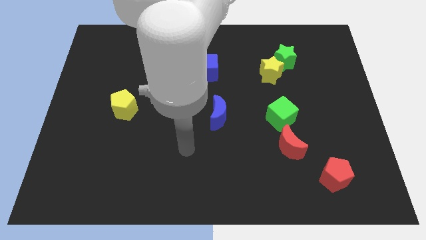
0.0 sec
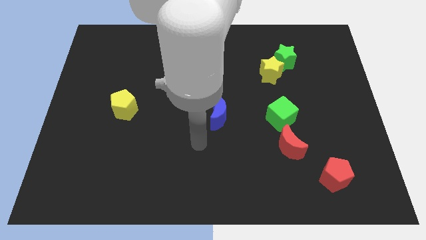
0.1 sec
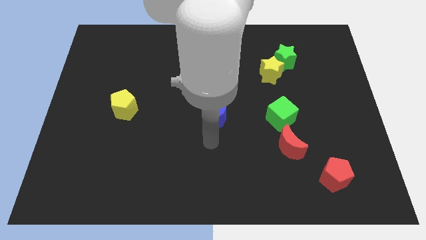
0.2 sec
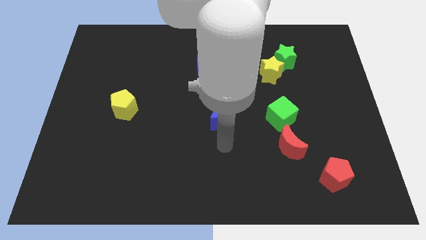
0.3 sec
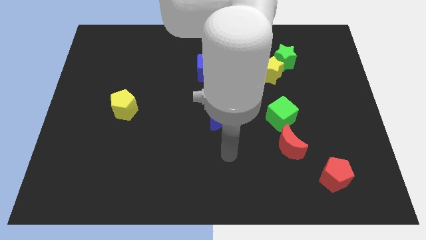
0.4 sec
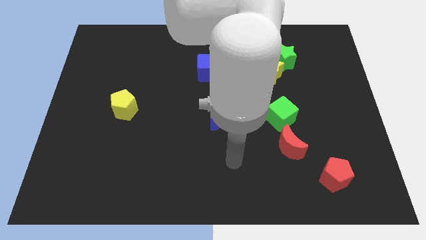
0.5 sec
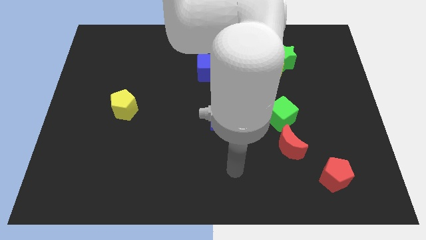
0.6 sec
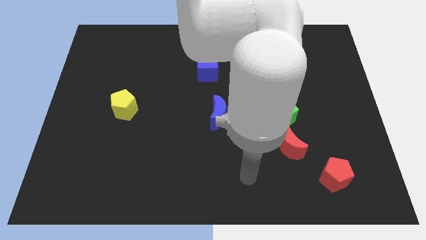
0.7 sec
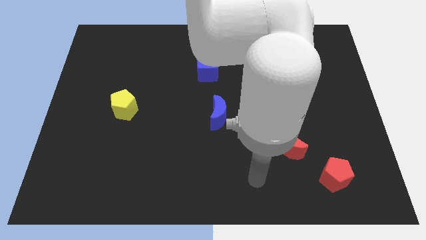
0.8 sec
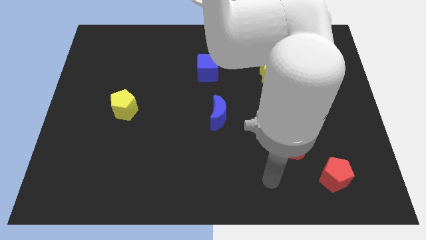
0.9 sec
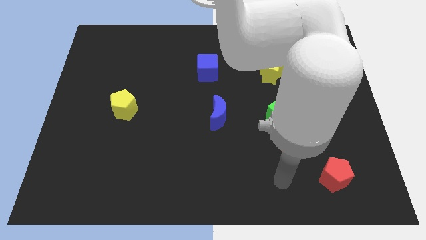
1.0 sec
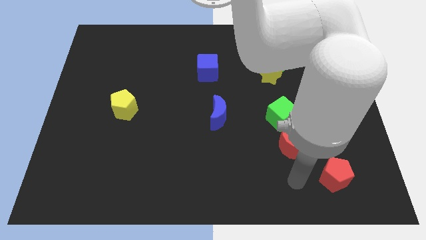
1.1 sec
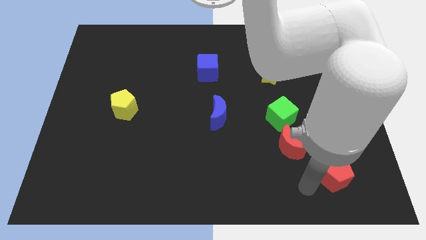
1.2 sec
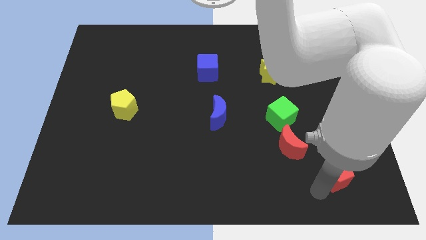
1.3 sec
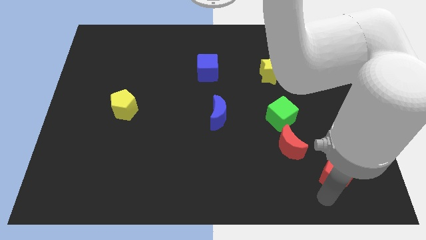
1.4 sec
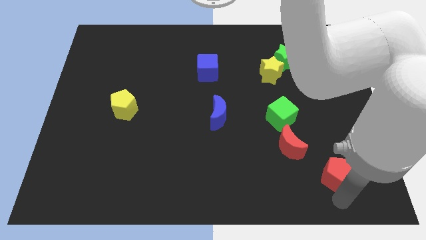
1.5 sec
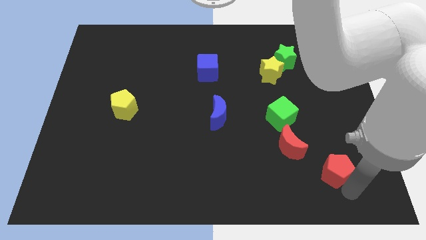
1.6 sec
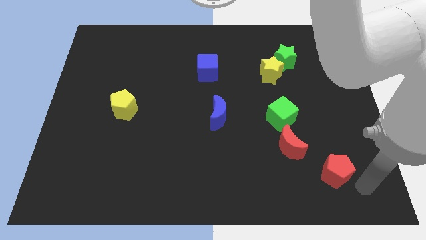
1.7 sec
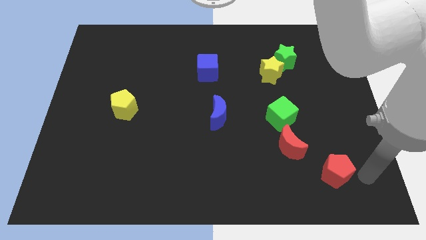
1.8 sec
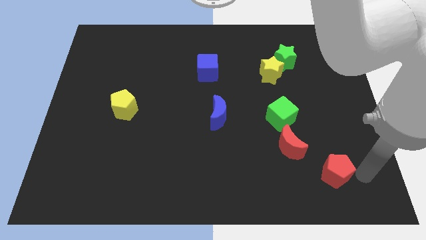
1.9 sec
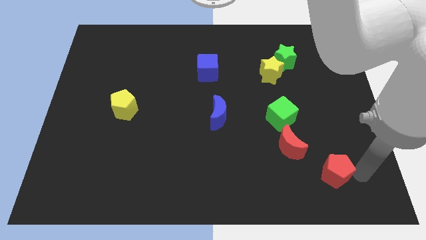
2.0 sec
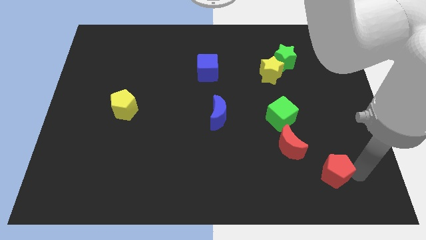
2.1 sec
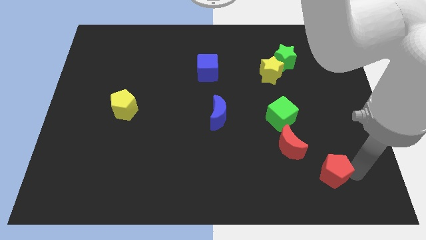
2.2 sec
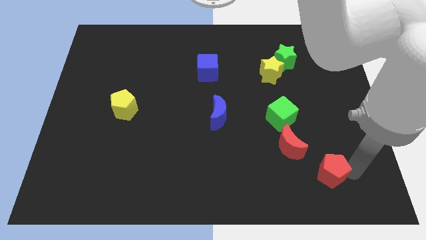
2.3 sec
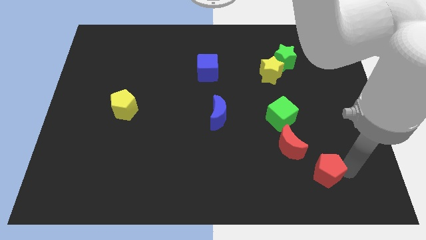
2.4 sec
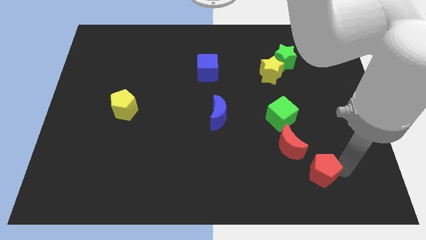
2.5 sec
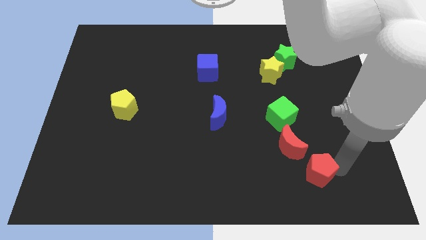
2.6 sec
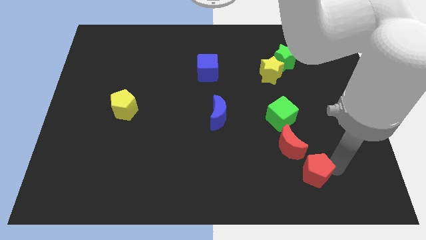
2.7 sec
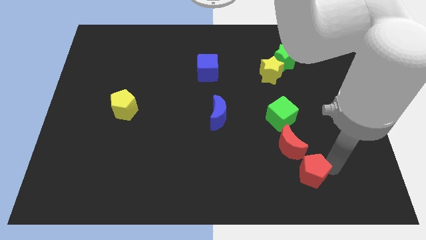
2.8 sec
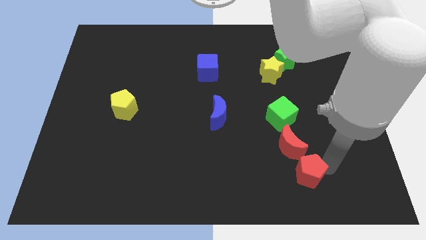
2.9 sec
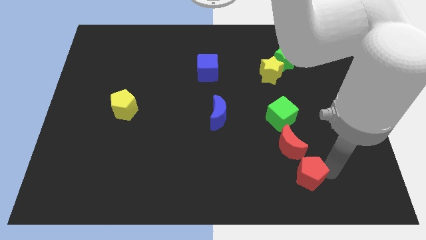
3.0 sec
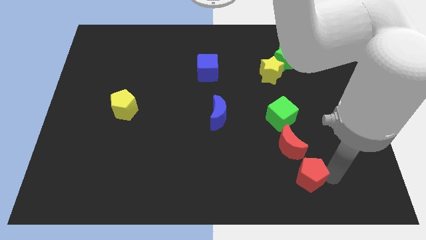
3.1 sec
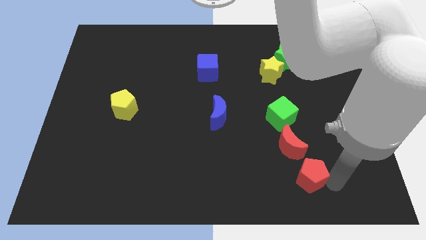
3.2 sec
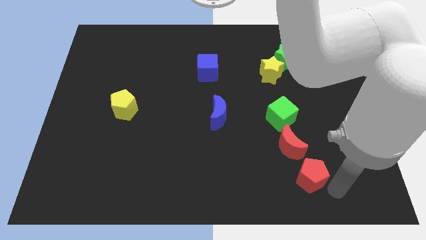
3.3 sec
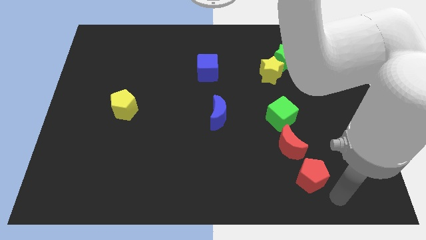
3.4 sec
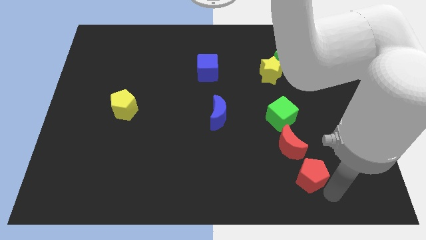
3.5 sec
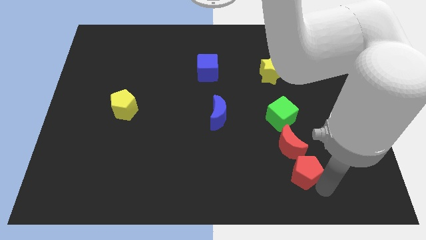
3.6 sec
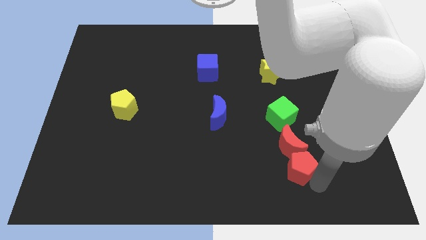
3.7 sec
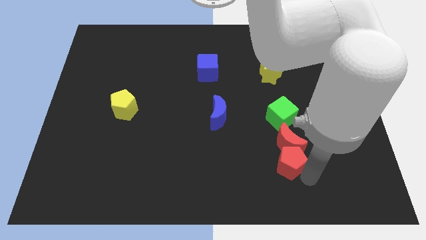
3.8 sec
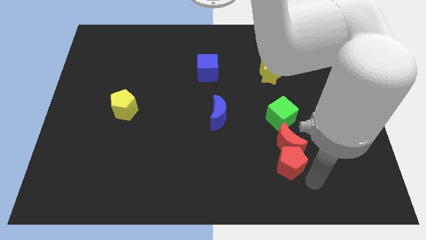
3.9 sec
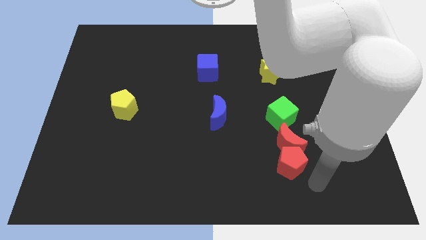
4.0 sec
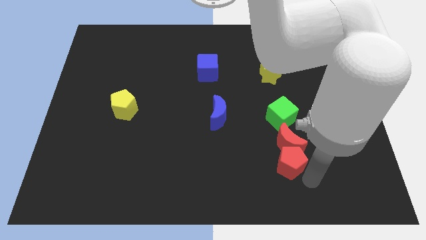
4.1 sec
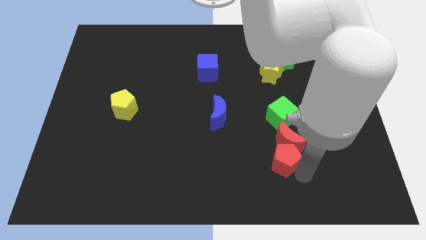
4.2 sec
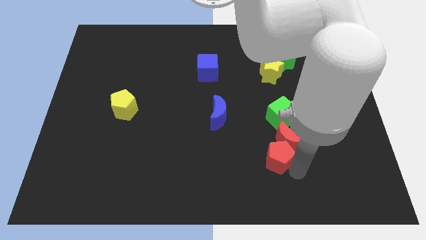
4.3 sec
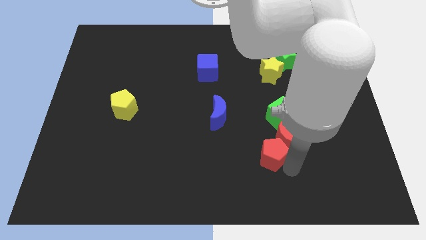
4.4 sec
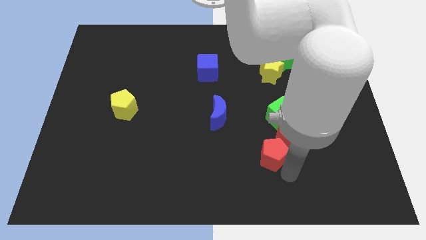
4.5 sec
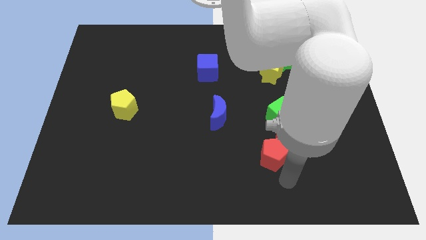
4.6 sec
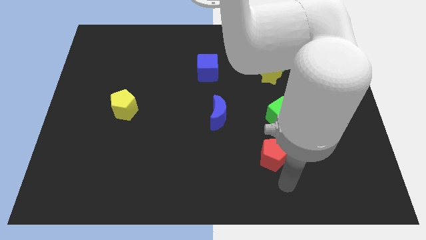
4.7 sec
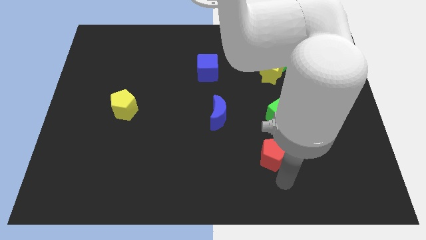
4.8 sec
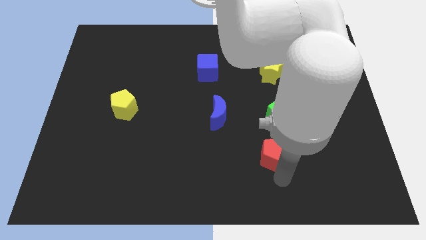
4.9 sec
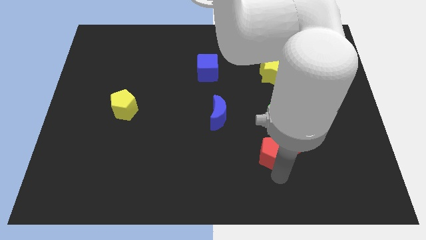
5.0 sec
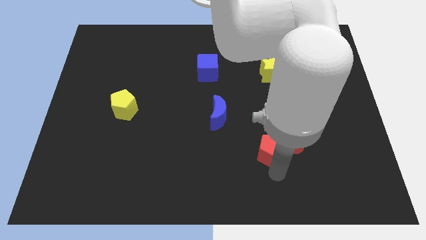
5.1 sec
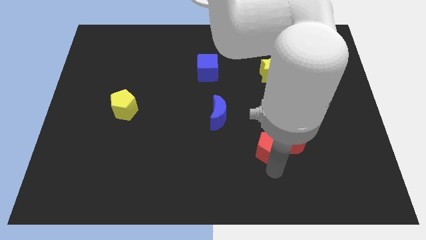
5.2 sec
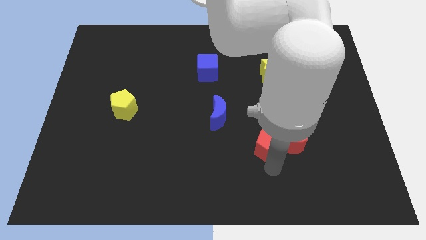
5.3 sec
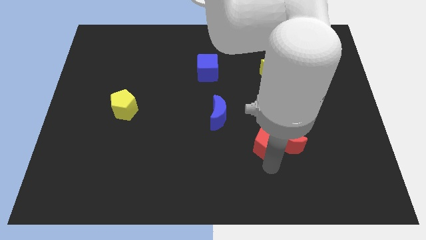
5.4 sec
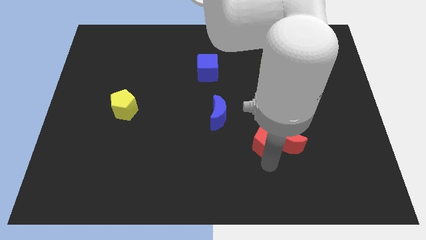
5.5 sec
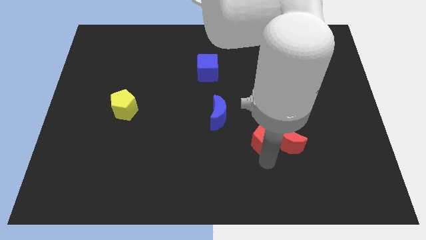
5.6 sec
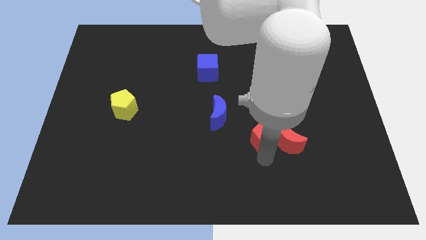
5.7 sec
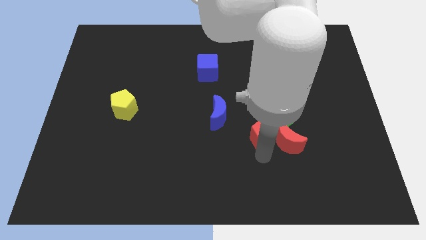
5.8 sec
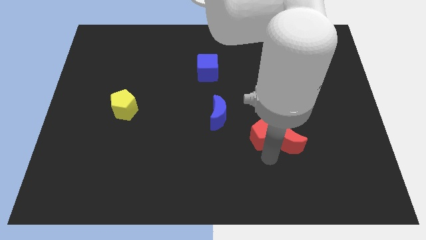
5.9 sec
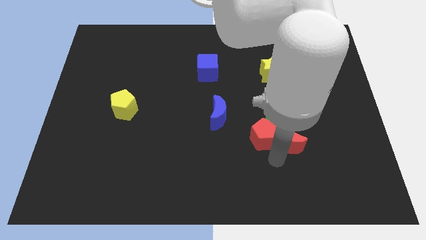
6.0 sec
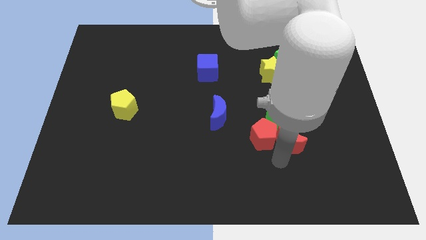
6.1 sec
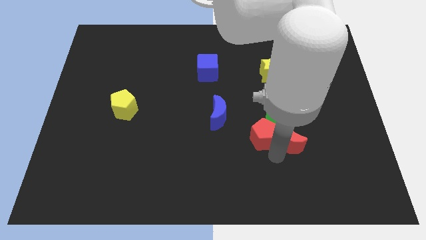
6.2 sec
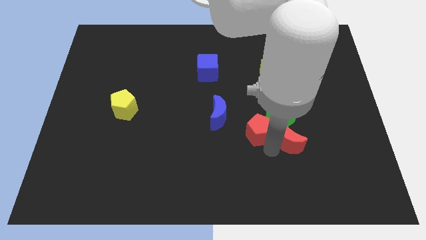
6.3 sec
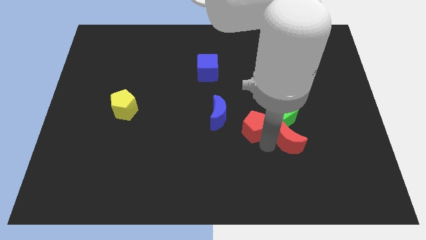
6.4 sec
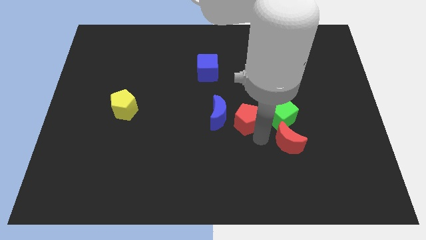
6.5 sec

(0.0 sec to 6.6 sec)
slide the red pentagon up and to the left

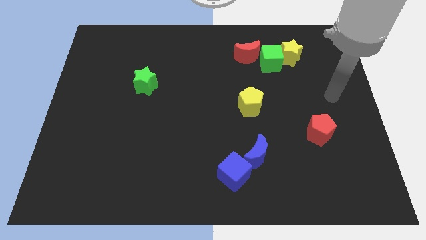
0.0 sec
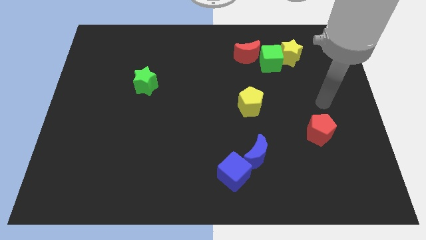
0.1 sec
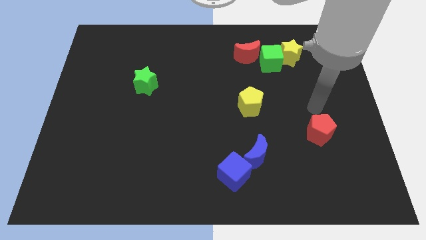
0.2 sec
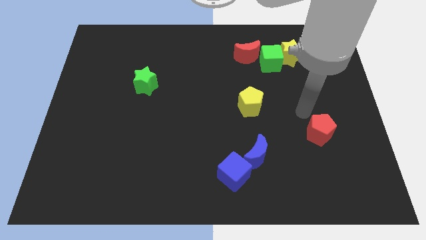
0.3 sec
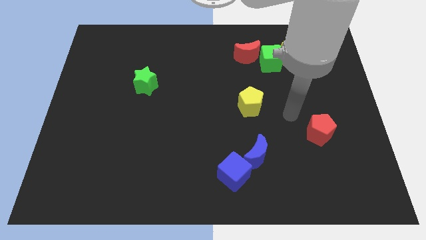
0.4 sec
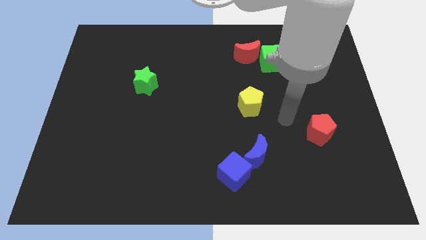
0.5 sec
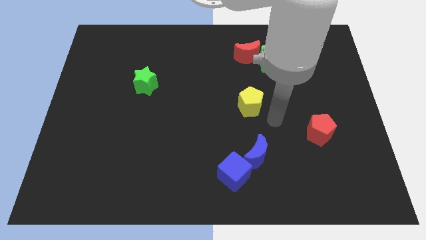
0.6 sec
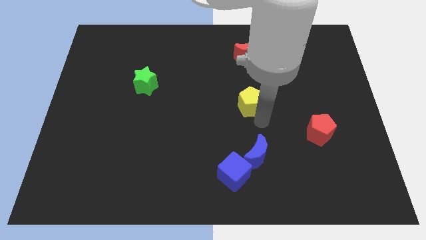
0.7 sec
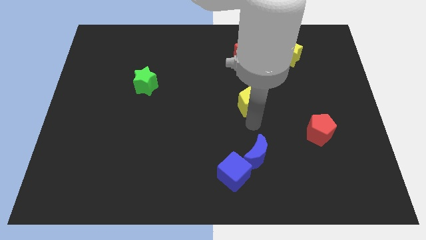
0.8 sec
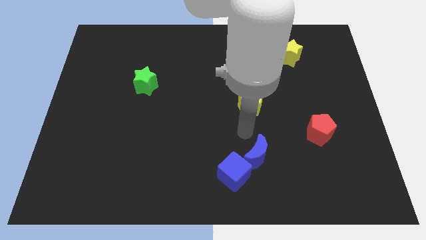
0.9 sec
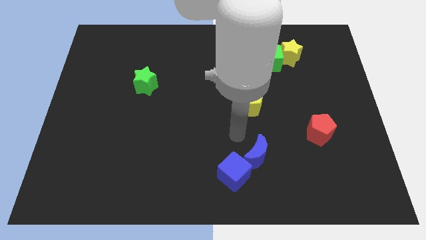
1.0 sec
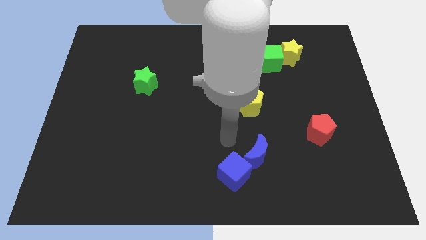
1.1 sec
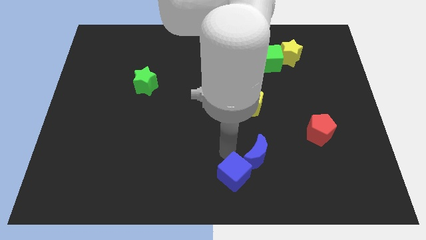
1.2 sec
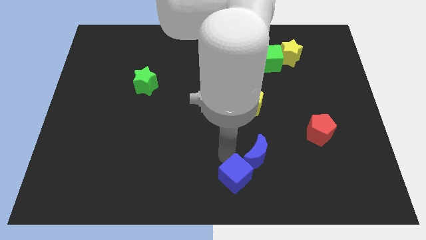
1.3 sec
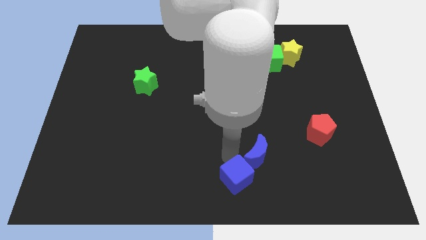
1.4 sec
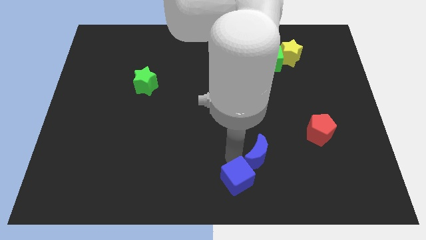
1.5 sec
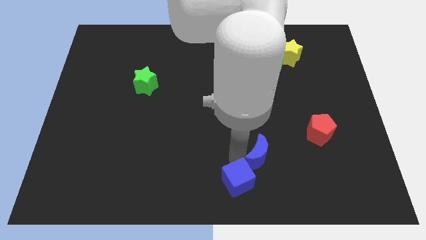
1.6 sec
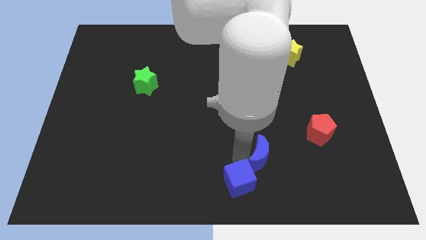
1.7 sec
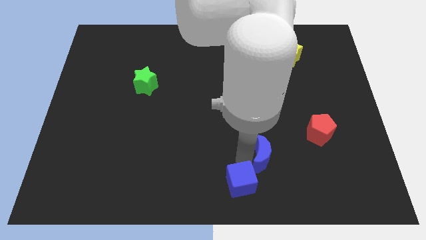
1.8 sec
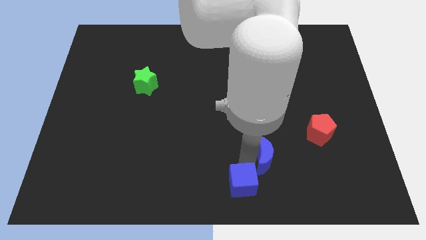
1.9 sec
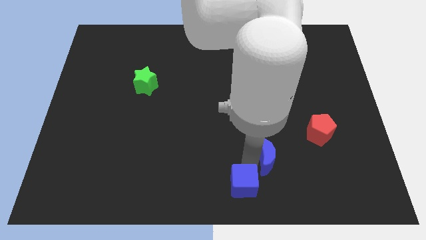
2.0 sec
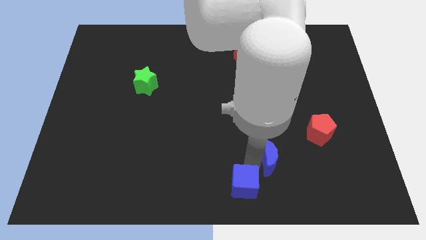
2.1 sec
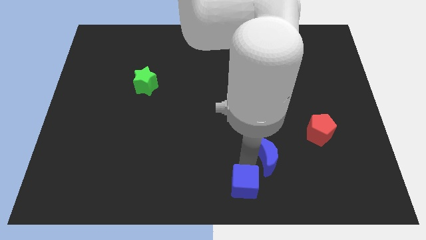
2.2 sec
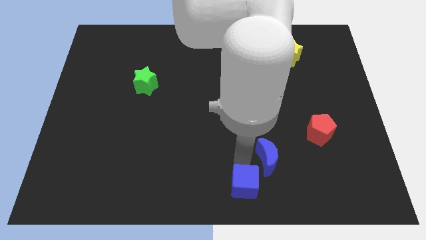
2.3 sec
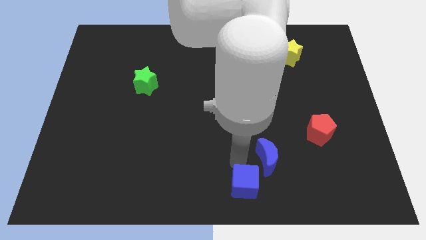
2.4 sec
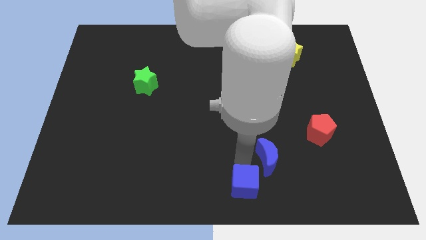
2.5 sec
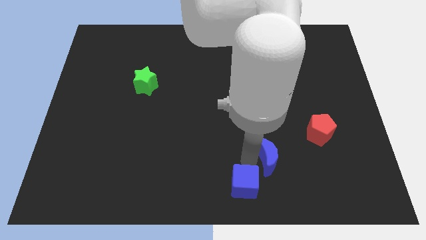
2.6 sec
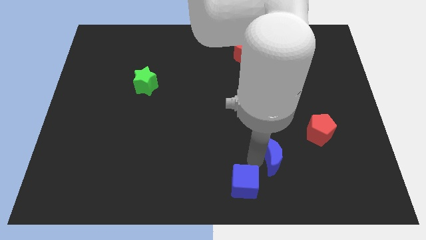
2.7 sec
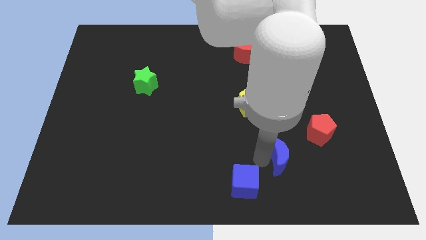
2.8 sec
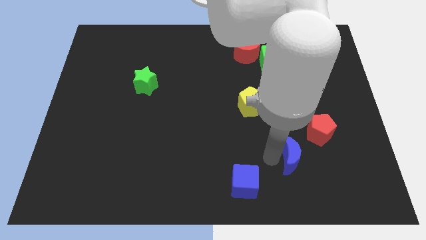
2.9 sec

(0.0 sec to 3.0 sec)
slightly push the blue moon right
